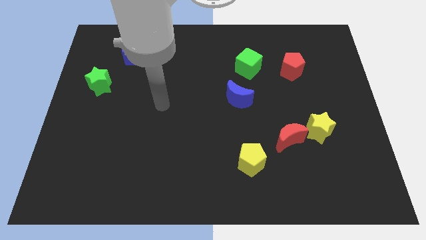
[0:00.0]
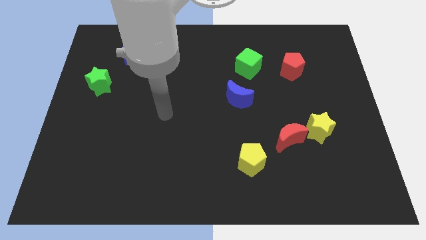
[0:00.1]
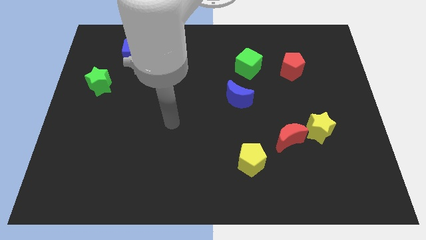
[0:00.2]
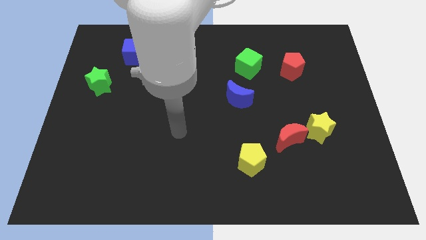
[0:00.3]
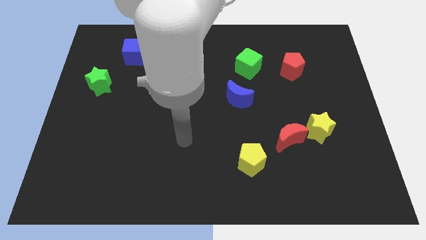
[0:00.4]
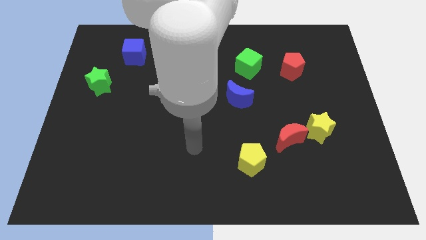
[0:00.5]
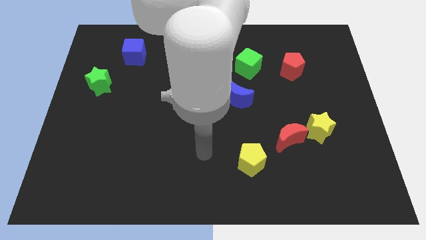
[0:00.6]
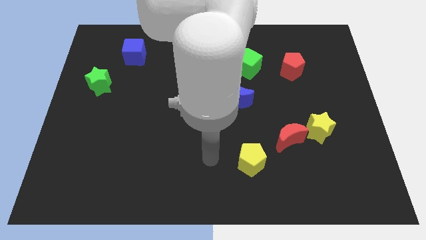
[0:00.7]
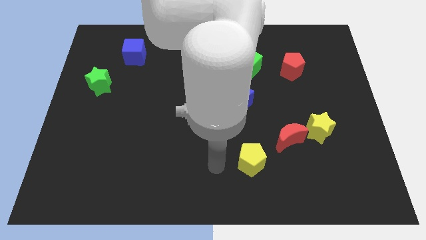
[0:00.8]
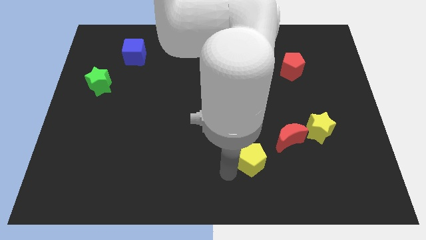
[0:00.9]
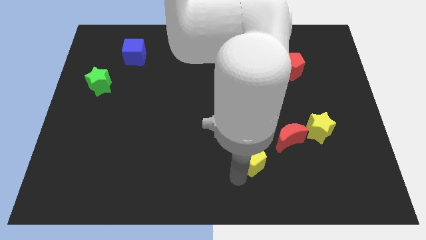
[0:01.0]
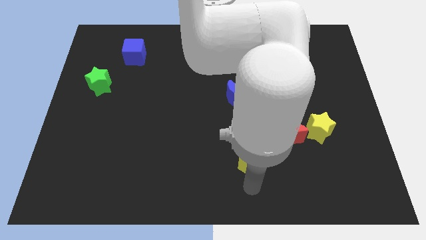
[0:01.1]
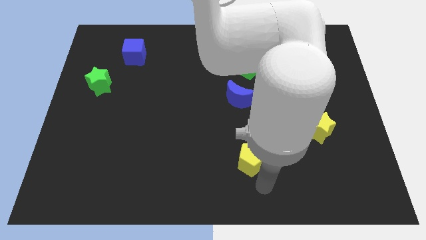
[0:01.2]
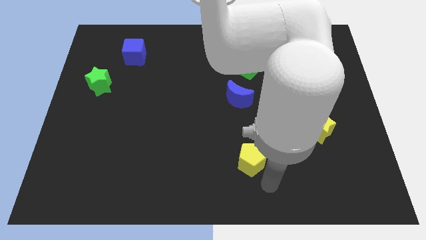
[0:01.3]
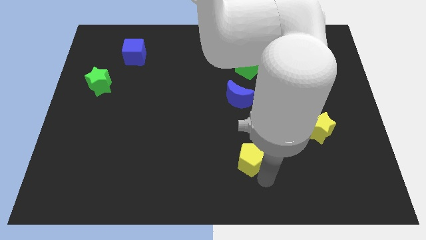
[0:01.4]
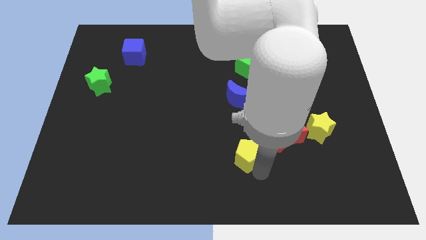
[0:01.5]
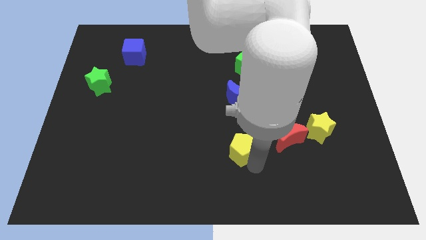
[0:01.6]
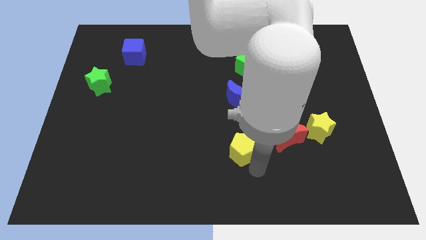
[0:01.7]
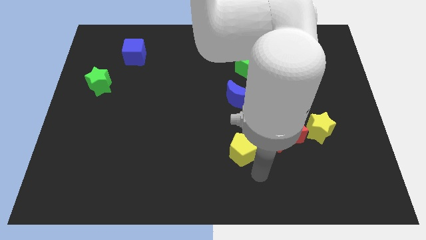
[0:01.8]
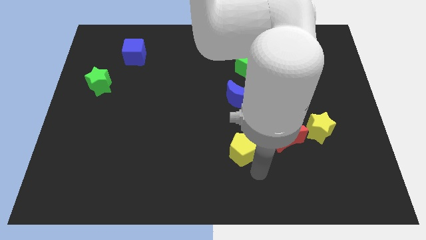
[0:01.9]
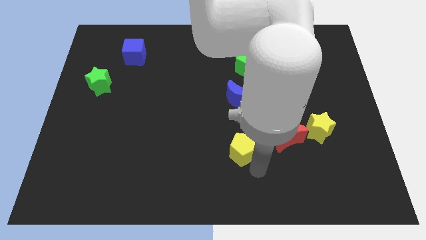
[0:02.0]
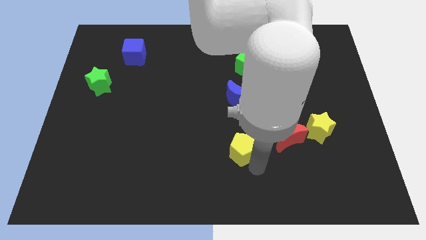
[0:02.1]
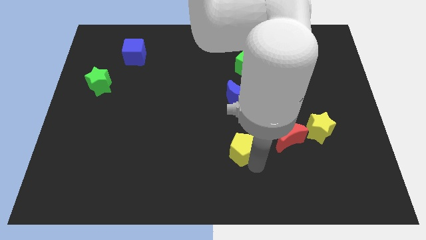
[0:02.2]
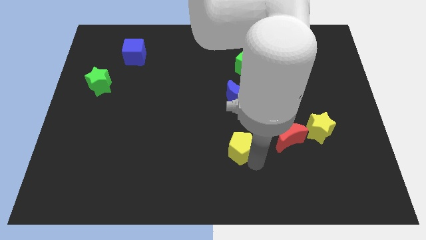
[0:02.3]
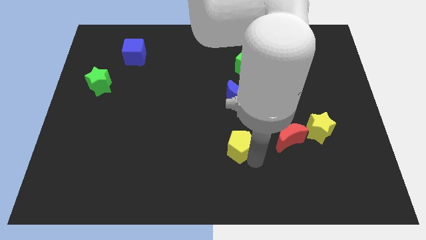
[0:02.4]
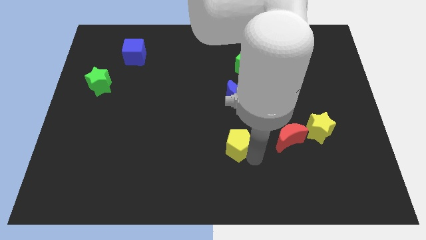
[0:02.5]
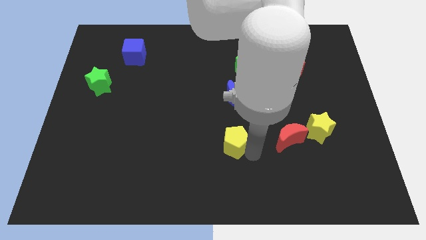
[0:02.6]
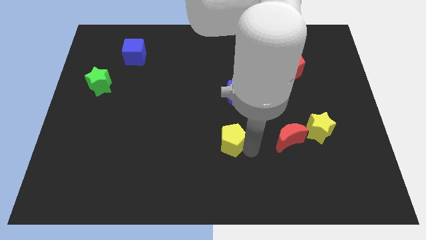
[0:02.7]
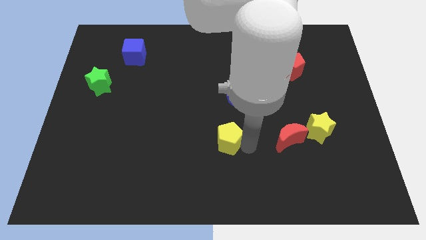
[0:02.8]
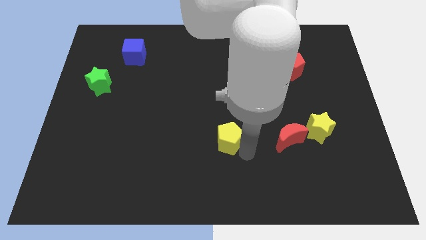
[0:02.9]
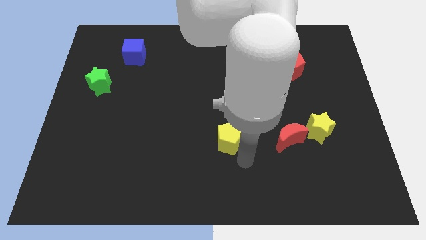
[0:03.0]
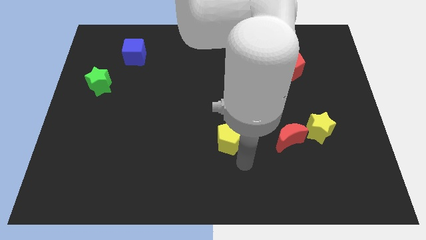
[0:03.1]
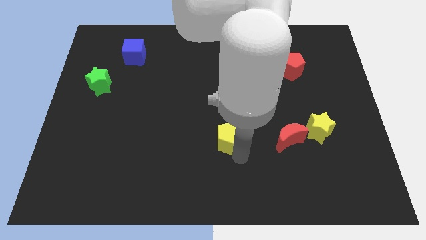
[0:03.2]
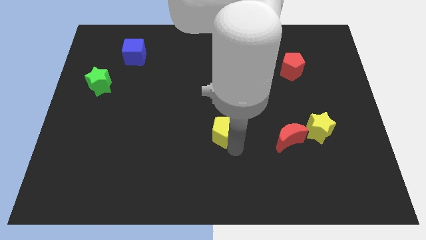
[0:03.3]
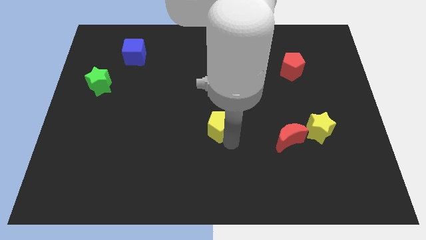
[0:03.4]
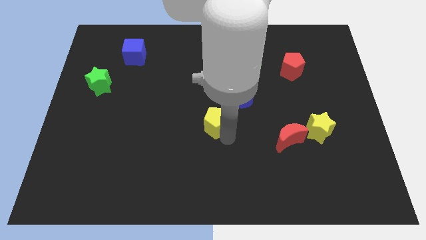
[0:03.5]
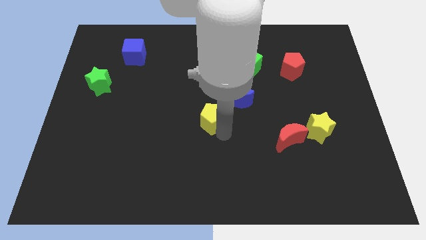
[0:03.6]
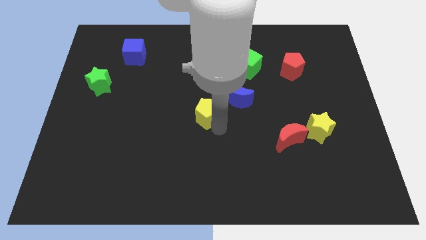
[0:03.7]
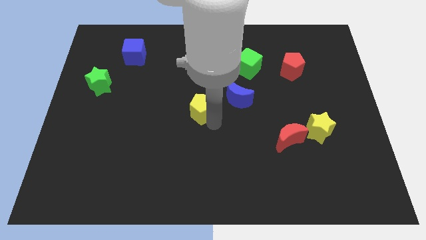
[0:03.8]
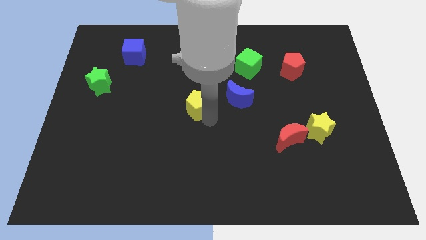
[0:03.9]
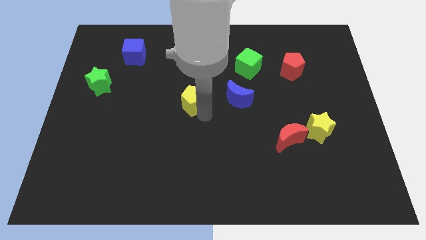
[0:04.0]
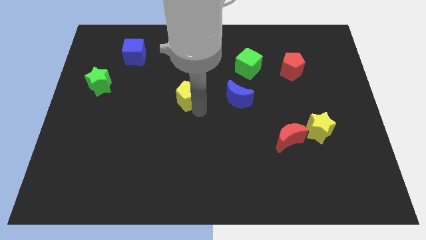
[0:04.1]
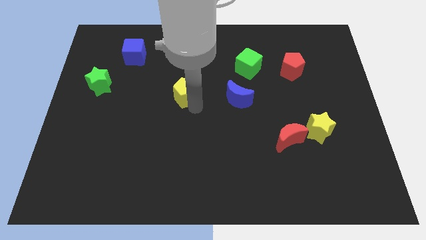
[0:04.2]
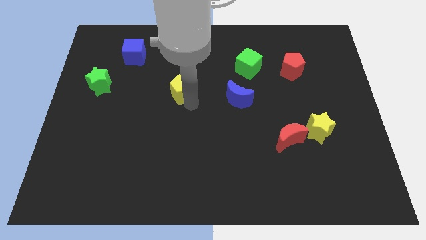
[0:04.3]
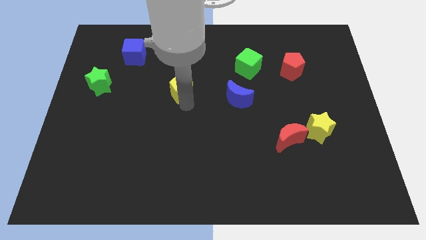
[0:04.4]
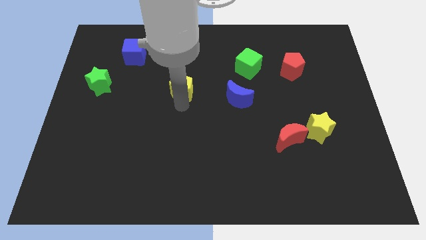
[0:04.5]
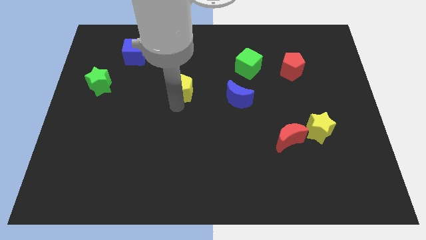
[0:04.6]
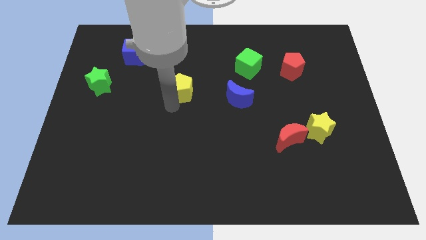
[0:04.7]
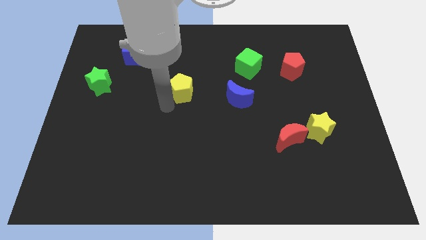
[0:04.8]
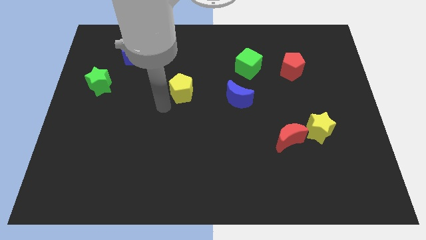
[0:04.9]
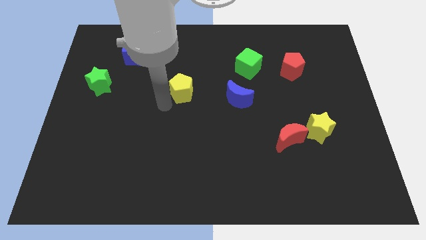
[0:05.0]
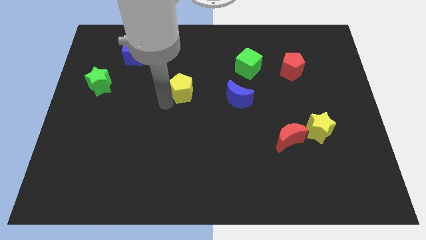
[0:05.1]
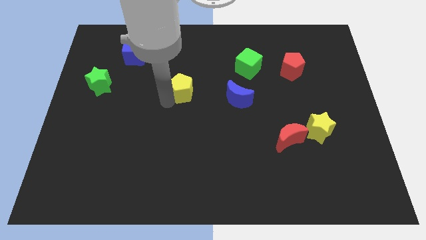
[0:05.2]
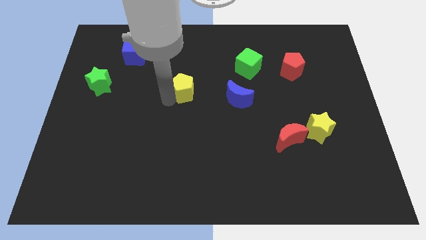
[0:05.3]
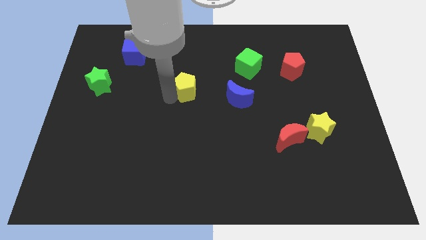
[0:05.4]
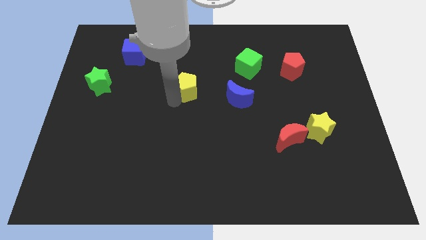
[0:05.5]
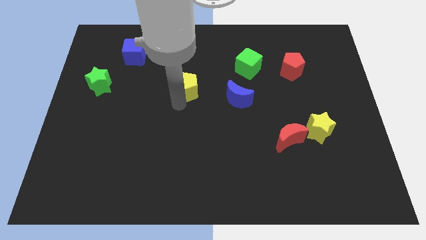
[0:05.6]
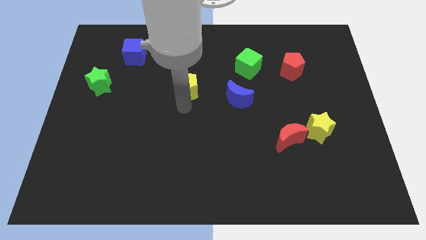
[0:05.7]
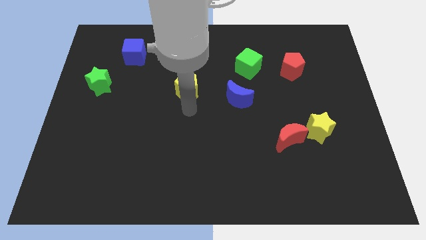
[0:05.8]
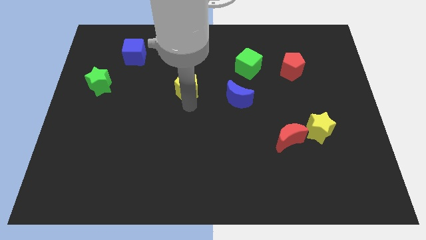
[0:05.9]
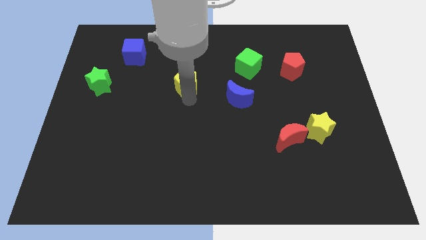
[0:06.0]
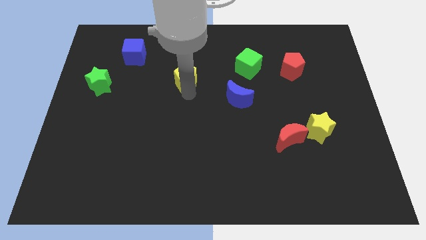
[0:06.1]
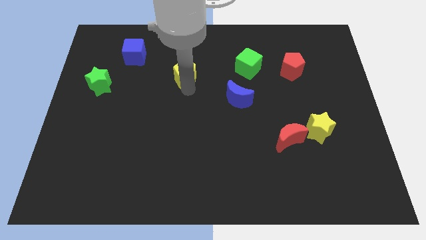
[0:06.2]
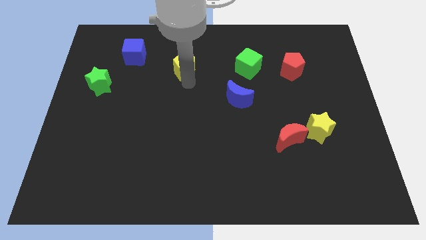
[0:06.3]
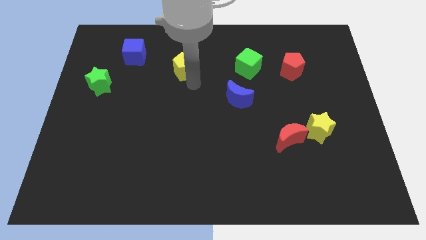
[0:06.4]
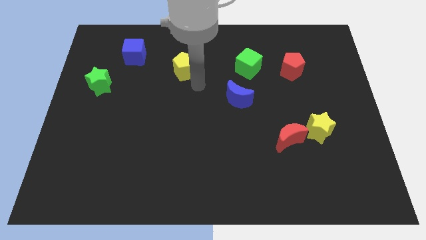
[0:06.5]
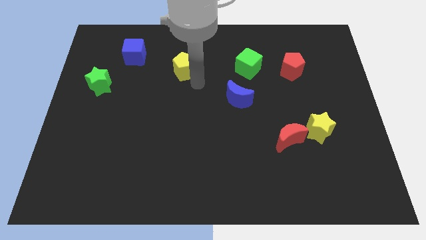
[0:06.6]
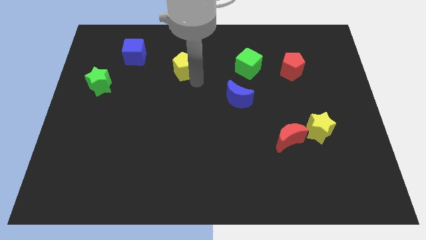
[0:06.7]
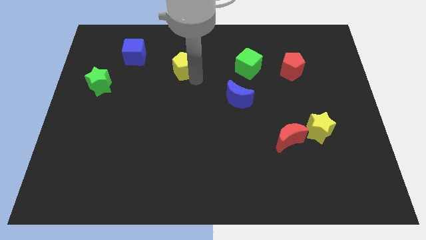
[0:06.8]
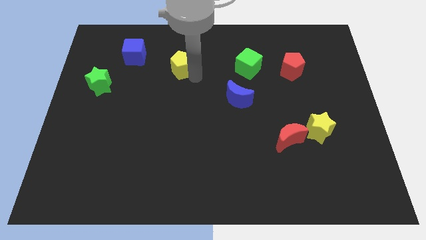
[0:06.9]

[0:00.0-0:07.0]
move the yellow pentagon right of the blue cube

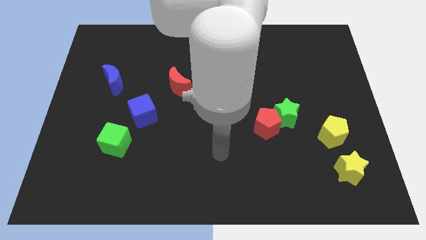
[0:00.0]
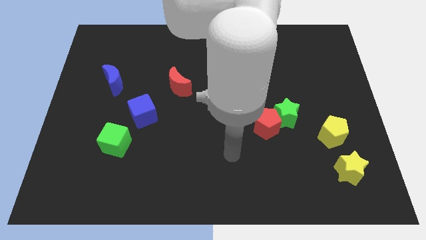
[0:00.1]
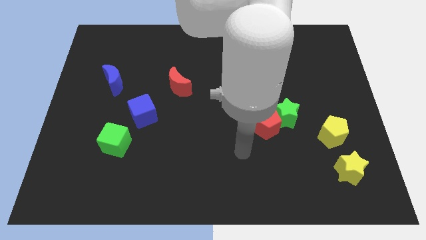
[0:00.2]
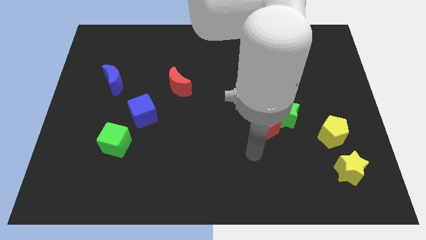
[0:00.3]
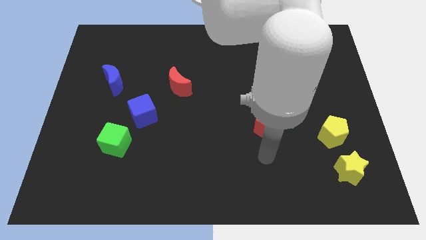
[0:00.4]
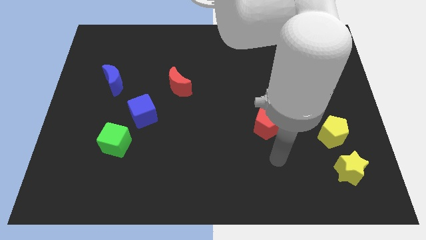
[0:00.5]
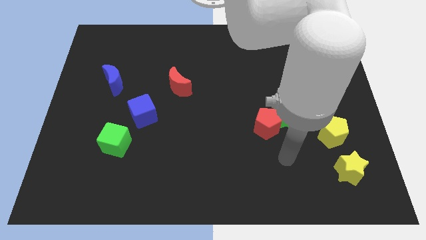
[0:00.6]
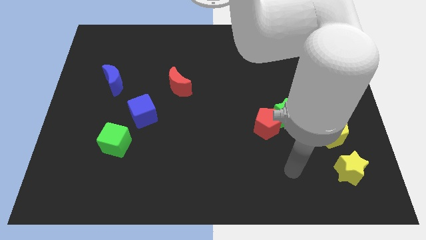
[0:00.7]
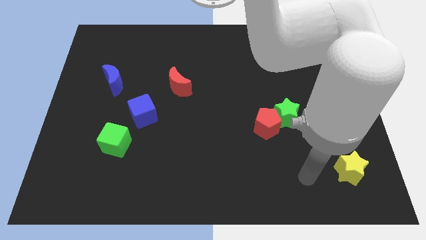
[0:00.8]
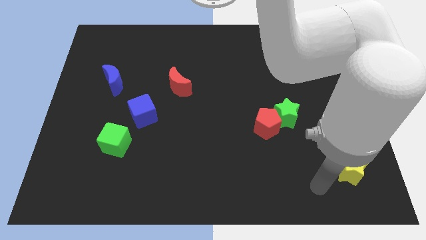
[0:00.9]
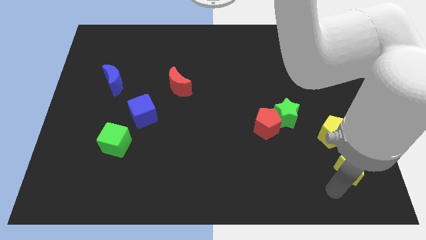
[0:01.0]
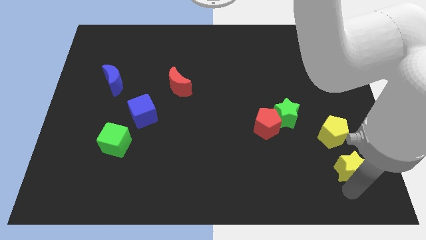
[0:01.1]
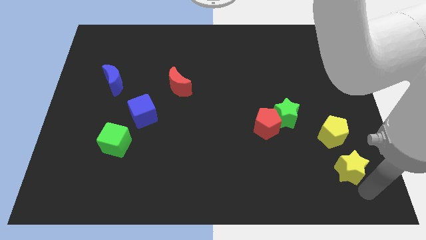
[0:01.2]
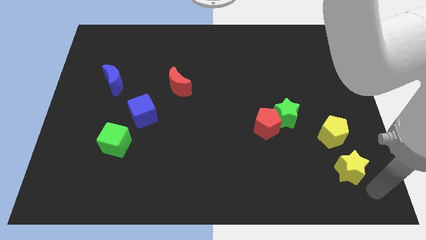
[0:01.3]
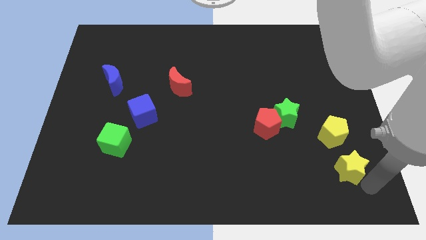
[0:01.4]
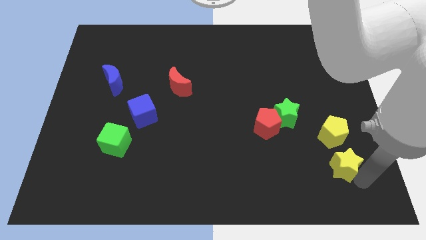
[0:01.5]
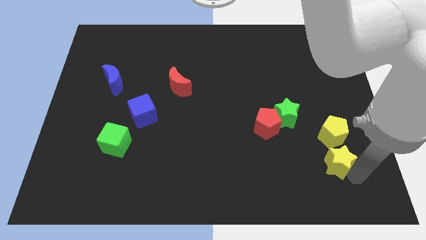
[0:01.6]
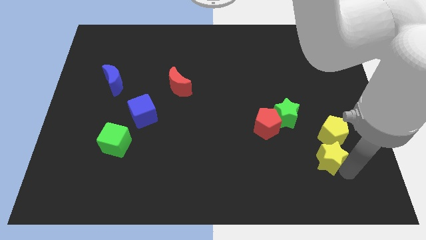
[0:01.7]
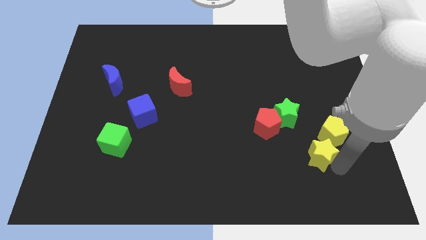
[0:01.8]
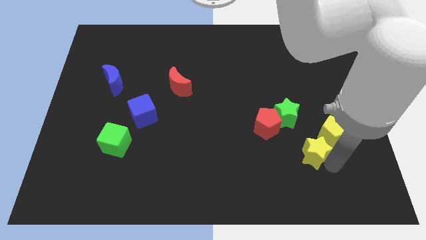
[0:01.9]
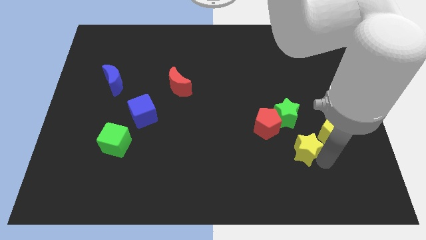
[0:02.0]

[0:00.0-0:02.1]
move the yellow star just left of the yellow pentagon
